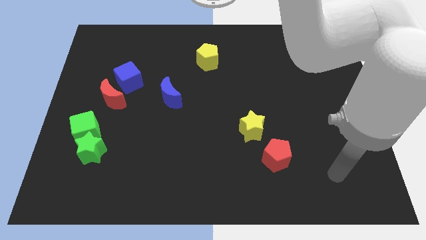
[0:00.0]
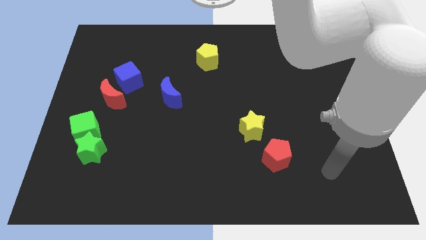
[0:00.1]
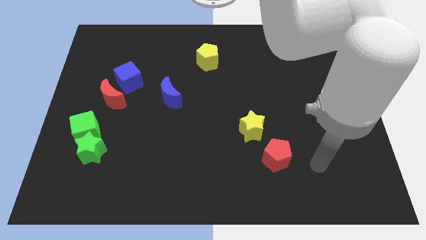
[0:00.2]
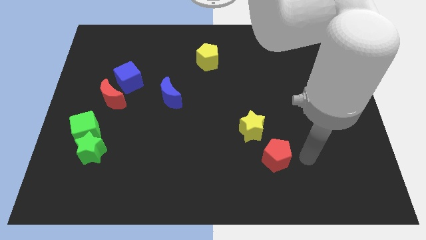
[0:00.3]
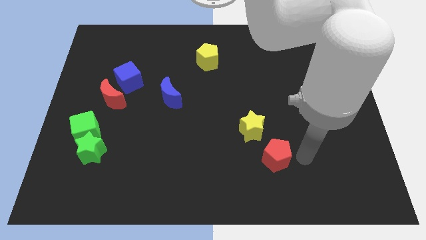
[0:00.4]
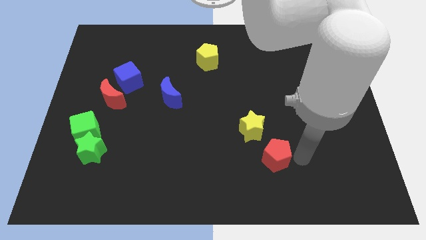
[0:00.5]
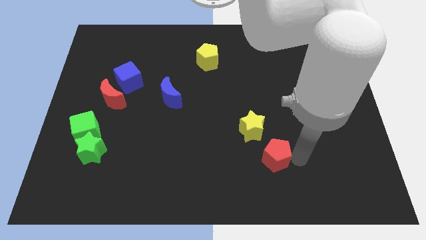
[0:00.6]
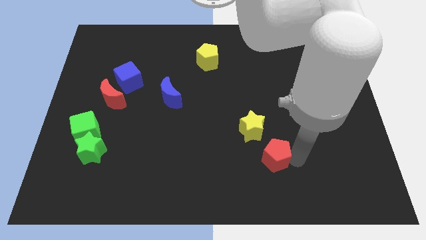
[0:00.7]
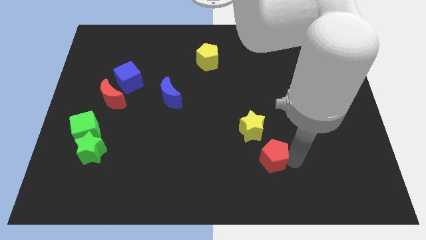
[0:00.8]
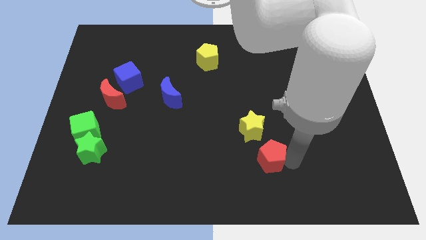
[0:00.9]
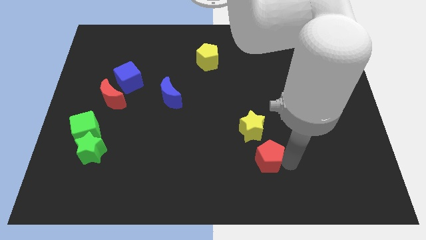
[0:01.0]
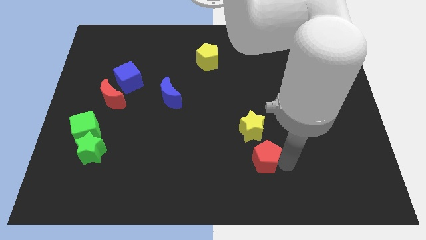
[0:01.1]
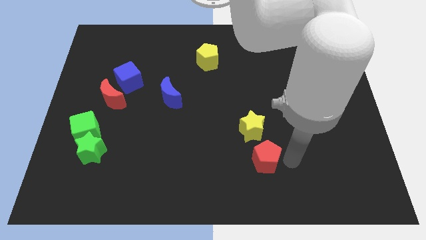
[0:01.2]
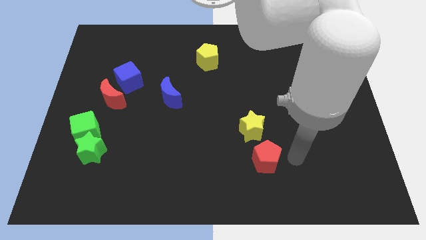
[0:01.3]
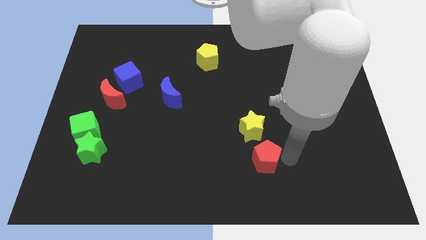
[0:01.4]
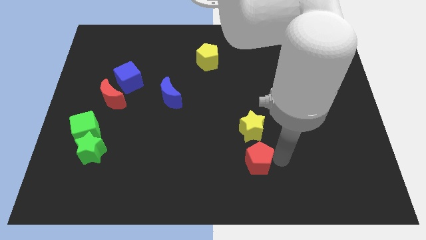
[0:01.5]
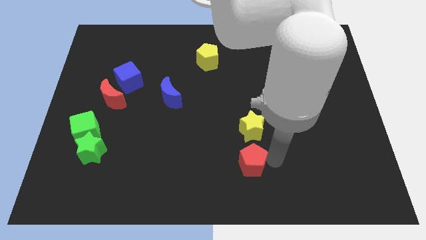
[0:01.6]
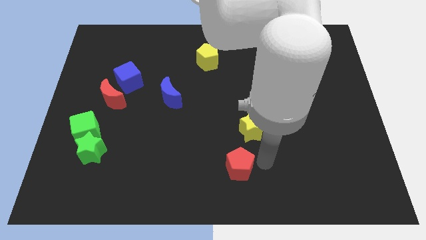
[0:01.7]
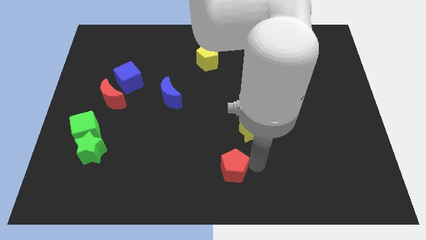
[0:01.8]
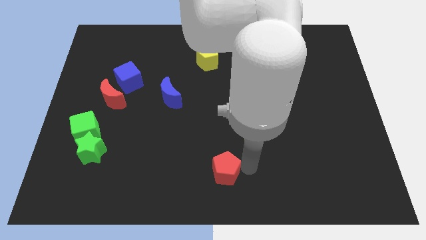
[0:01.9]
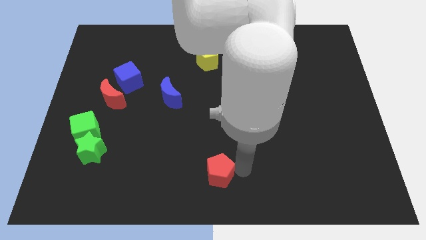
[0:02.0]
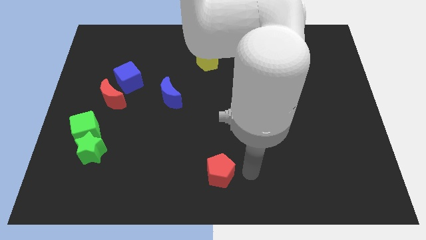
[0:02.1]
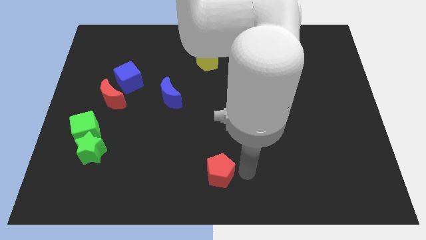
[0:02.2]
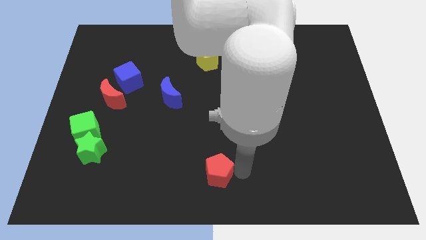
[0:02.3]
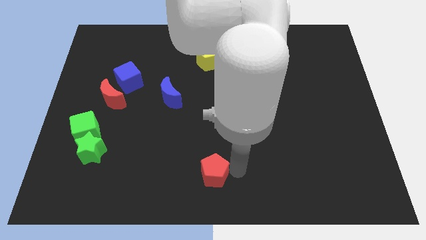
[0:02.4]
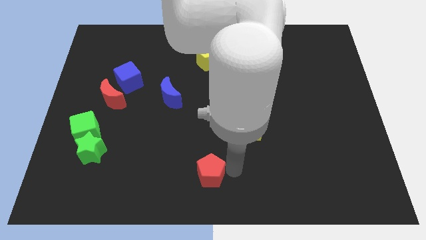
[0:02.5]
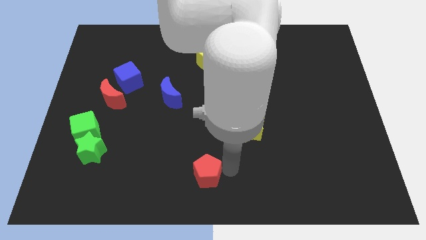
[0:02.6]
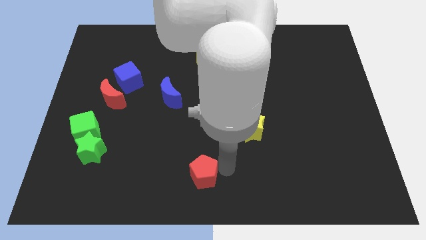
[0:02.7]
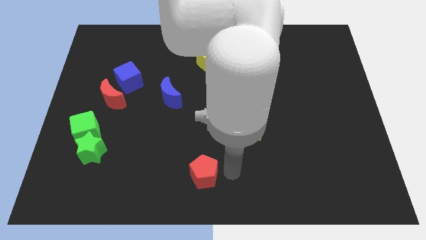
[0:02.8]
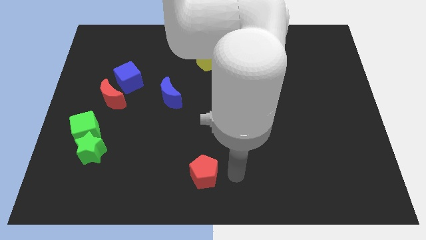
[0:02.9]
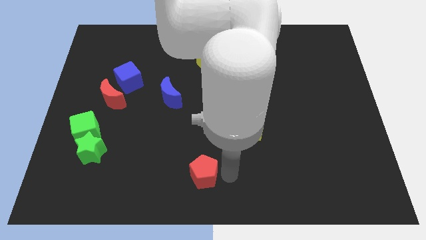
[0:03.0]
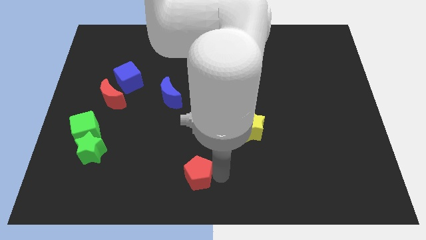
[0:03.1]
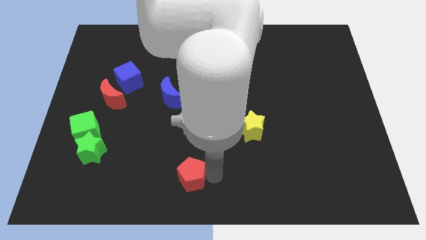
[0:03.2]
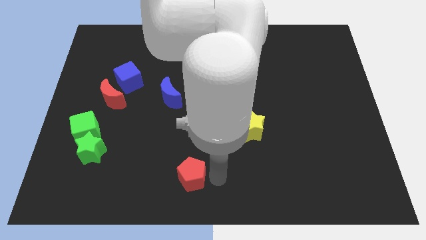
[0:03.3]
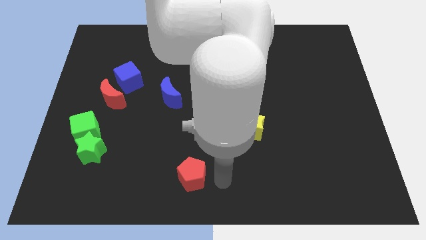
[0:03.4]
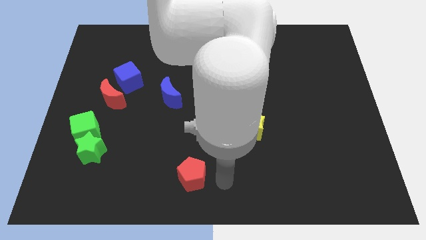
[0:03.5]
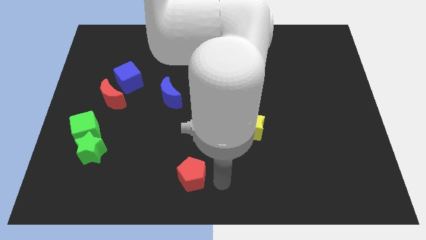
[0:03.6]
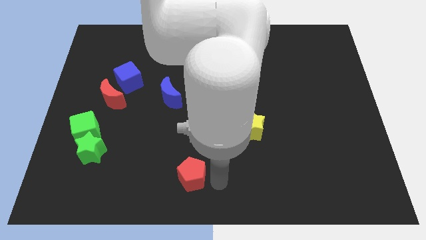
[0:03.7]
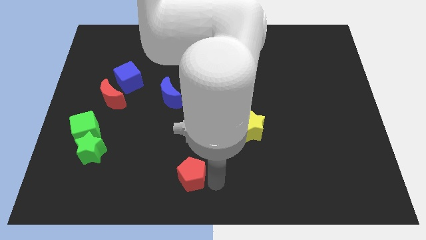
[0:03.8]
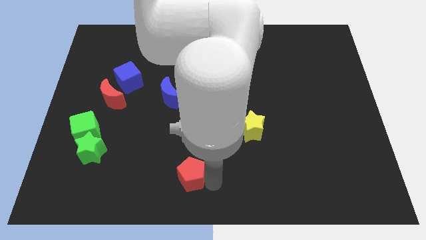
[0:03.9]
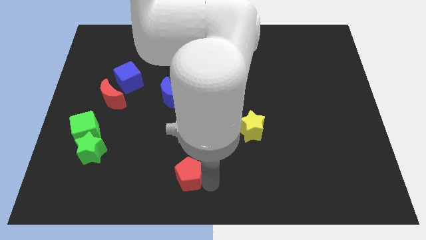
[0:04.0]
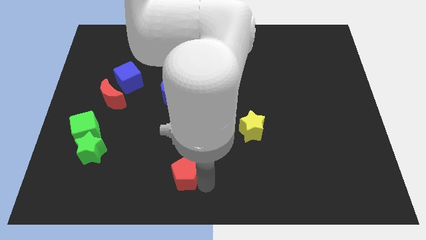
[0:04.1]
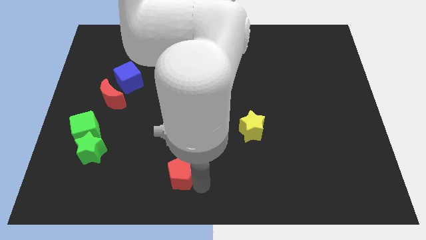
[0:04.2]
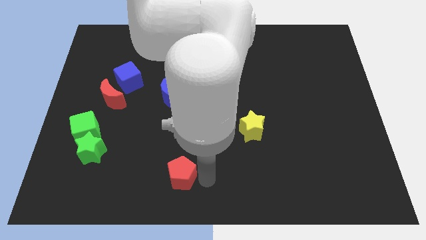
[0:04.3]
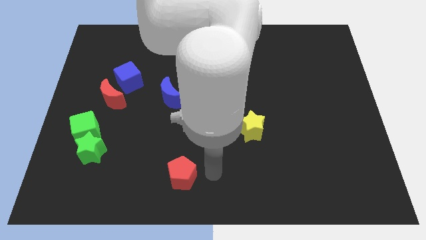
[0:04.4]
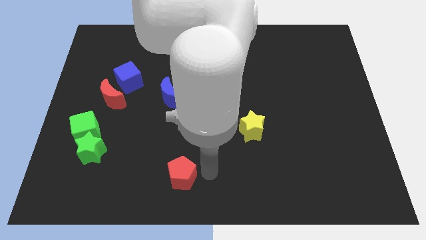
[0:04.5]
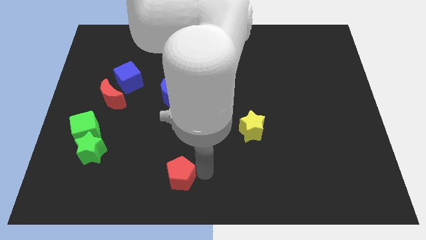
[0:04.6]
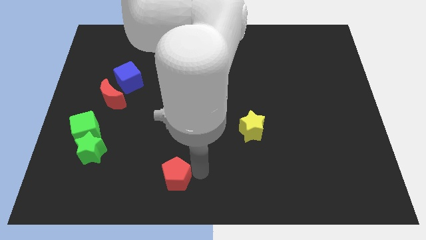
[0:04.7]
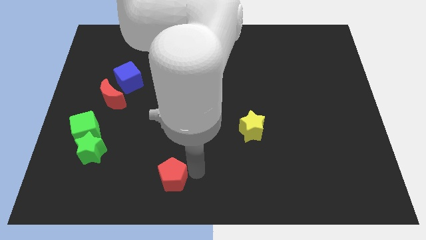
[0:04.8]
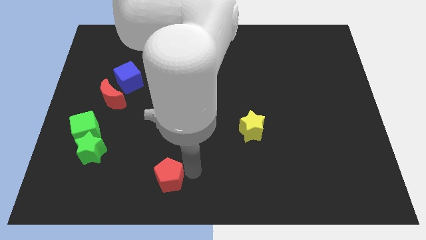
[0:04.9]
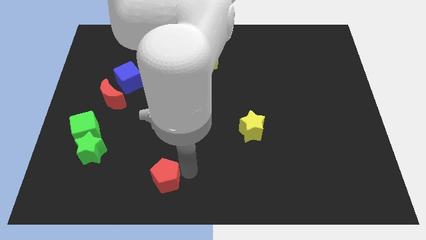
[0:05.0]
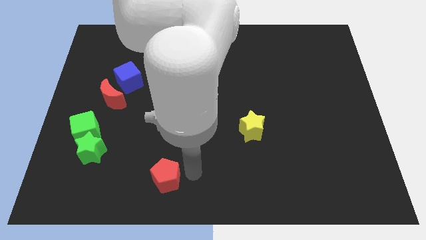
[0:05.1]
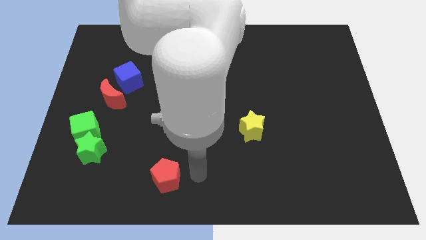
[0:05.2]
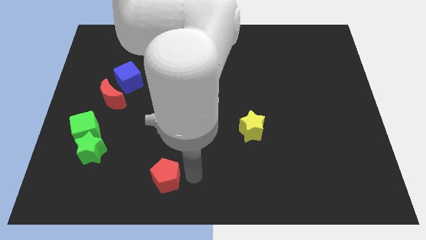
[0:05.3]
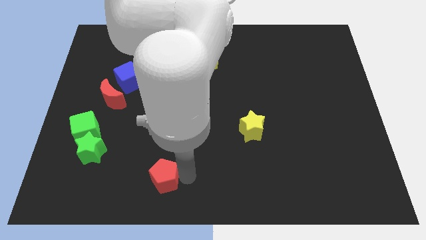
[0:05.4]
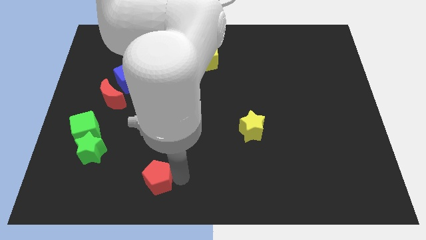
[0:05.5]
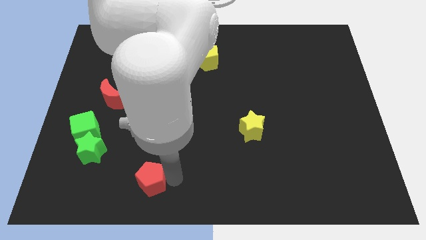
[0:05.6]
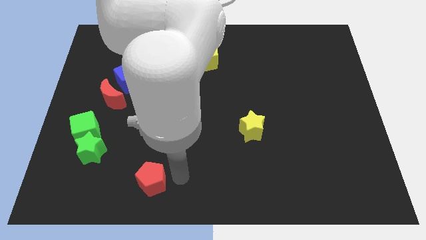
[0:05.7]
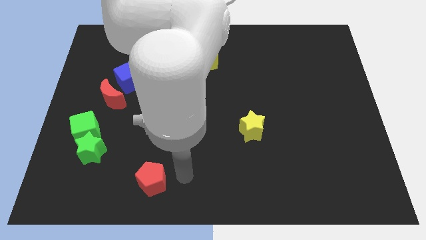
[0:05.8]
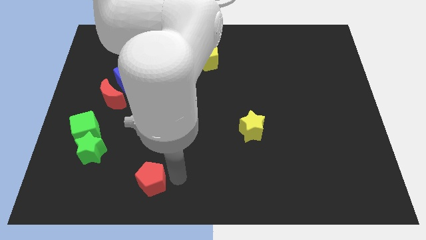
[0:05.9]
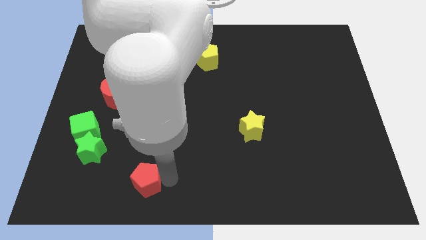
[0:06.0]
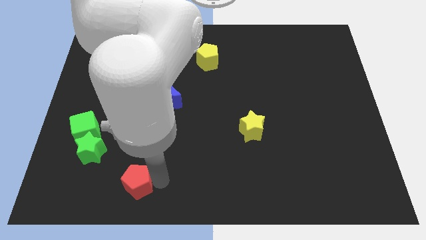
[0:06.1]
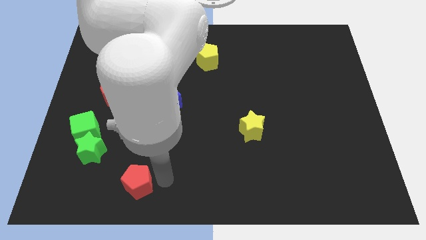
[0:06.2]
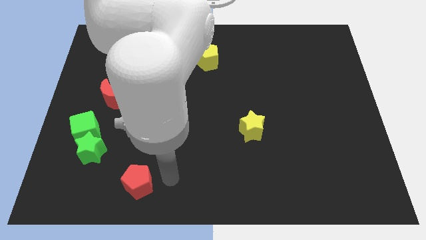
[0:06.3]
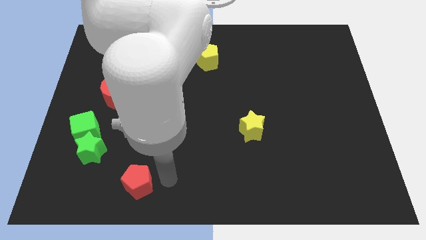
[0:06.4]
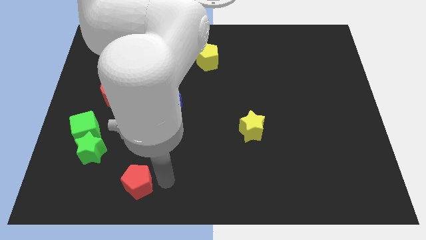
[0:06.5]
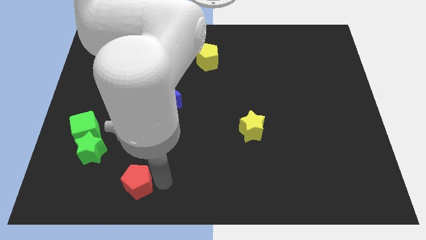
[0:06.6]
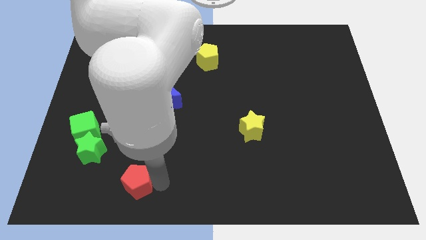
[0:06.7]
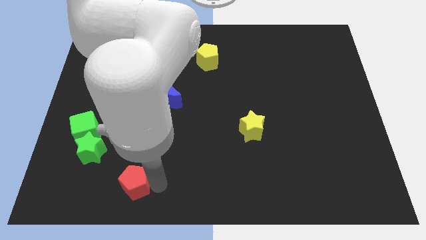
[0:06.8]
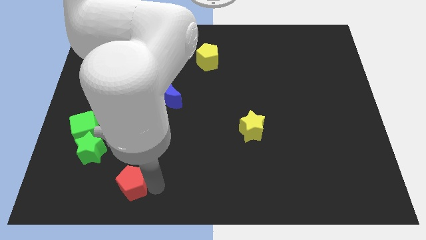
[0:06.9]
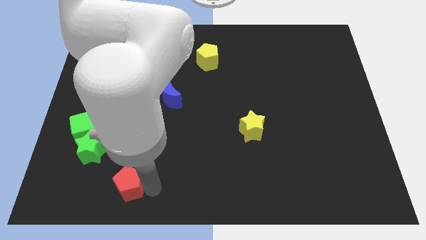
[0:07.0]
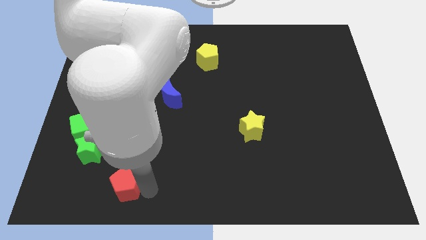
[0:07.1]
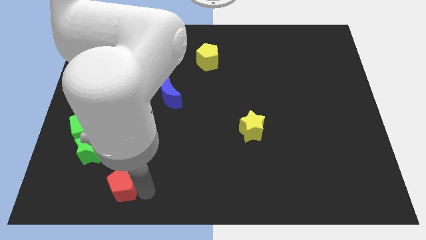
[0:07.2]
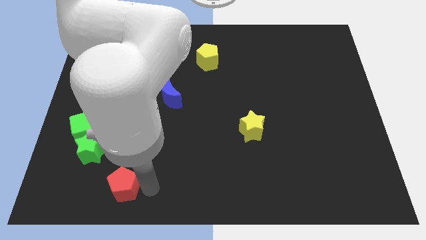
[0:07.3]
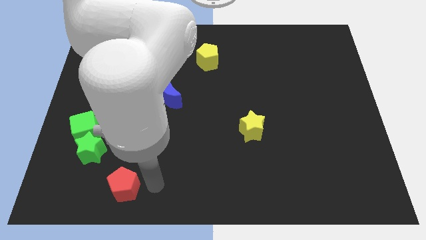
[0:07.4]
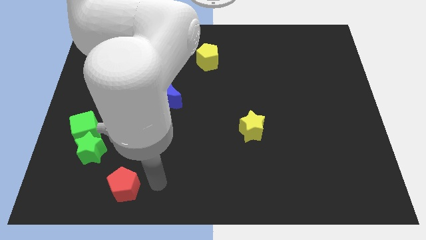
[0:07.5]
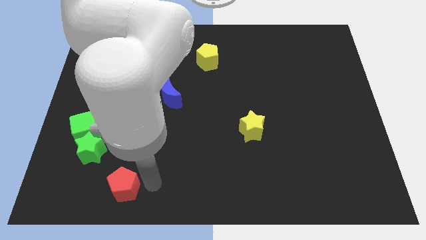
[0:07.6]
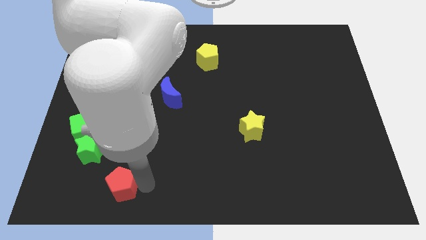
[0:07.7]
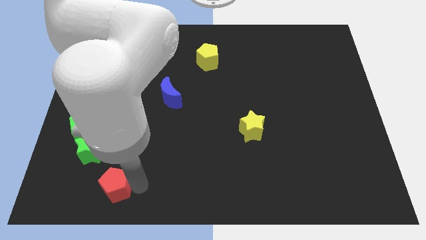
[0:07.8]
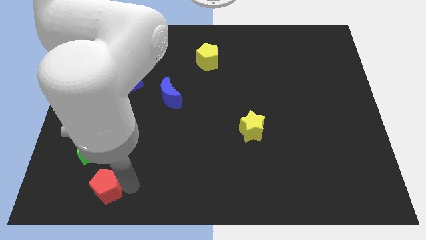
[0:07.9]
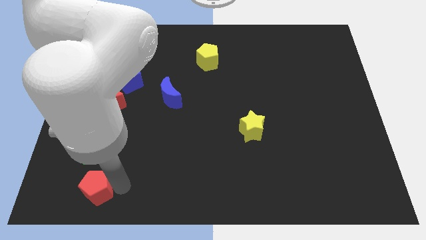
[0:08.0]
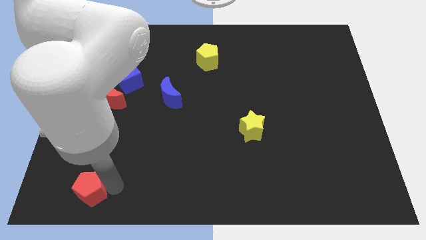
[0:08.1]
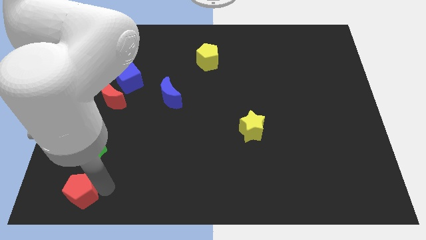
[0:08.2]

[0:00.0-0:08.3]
move the red pentagon to the lower left corner
